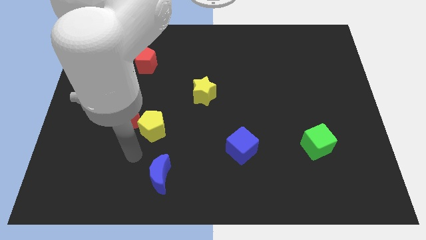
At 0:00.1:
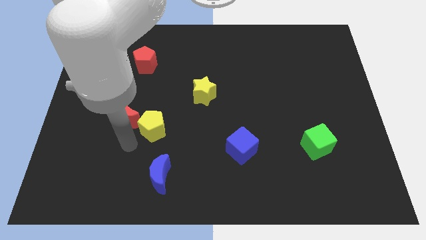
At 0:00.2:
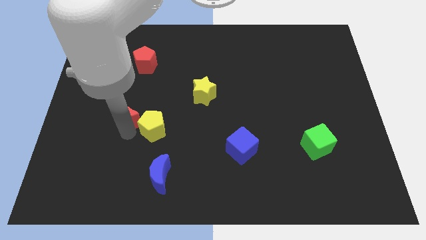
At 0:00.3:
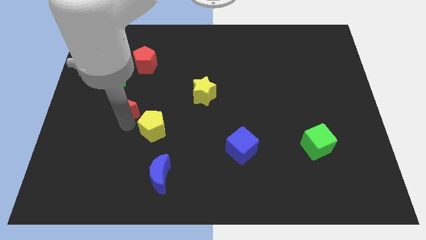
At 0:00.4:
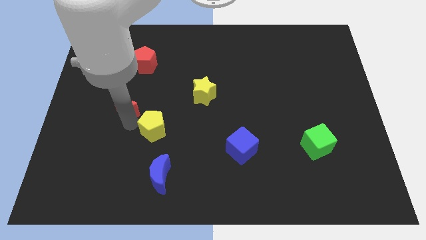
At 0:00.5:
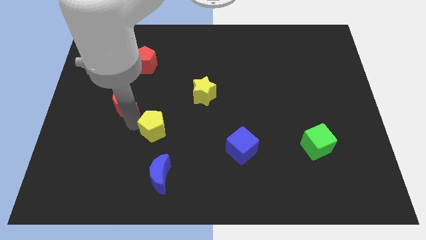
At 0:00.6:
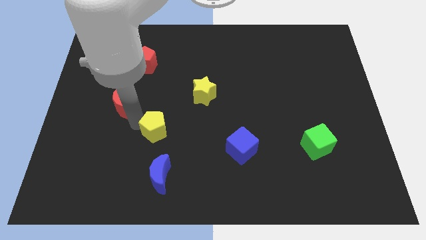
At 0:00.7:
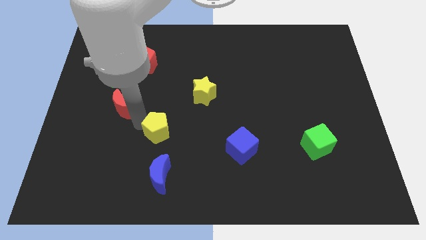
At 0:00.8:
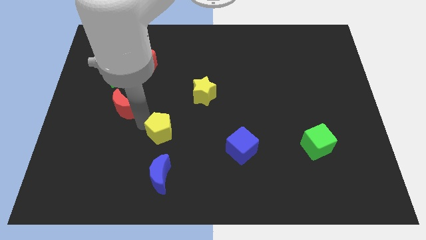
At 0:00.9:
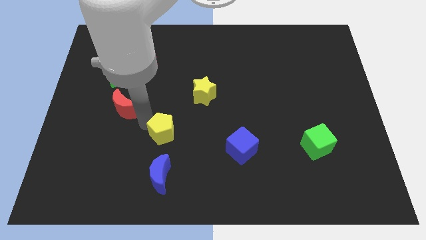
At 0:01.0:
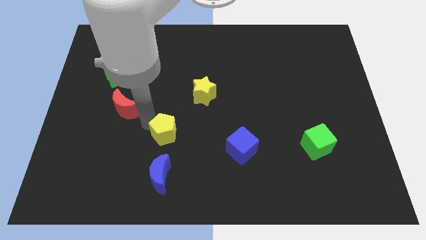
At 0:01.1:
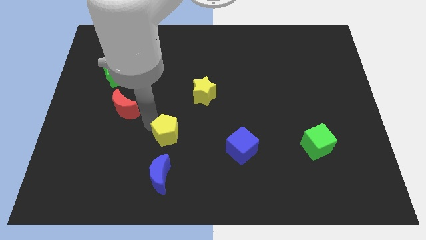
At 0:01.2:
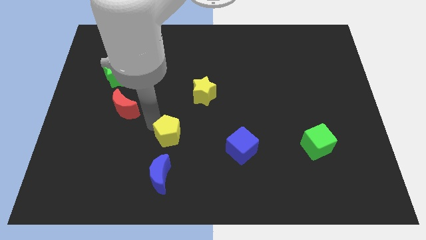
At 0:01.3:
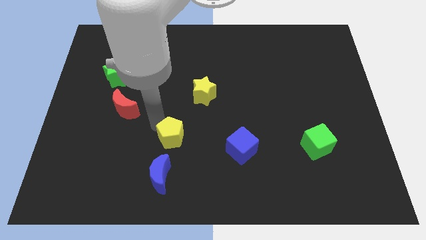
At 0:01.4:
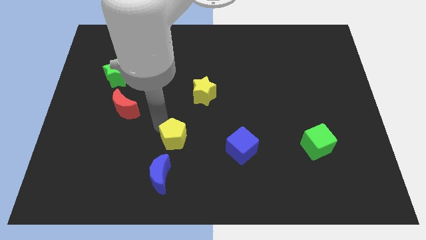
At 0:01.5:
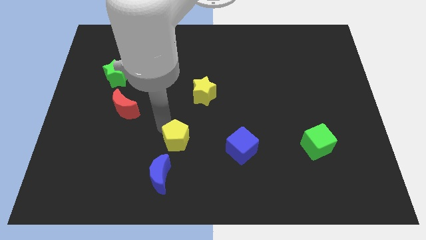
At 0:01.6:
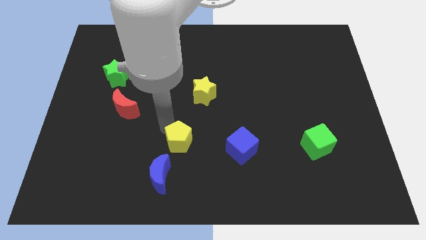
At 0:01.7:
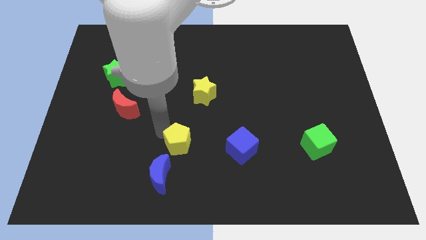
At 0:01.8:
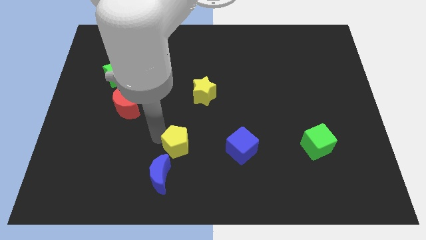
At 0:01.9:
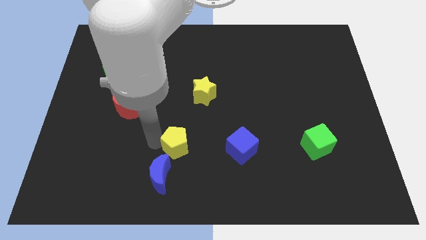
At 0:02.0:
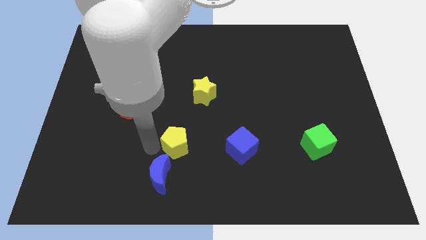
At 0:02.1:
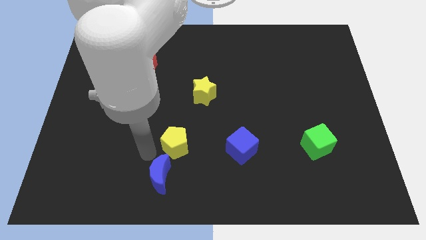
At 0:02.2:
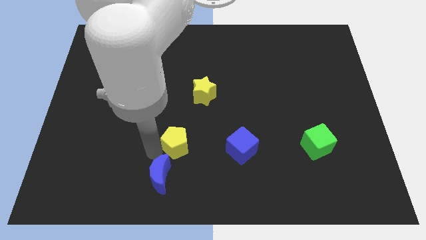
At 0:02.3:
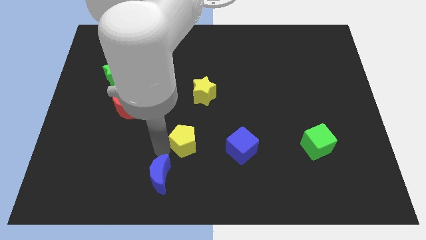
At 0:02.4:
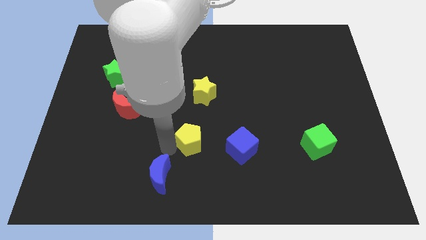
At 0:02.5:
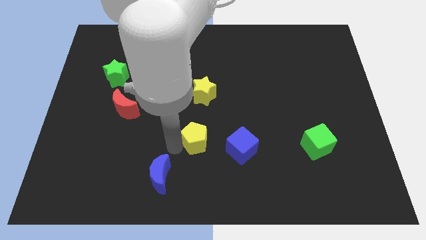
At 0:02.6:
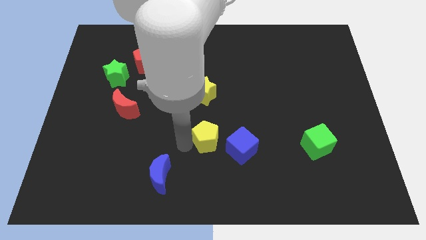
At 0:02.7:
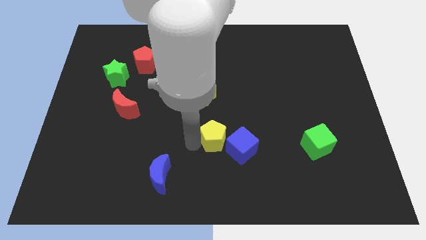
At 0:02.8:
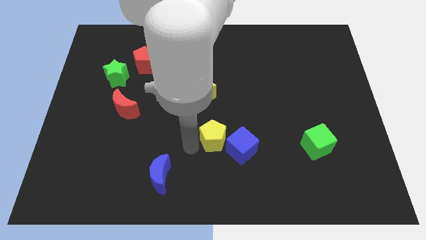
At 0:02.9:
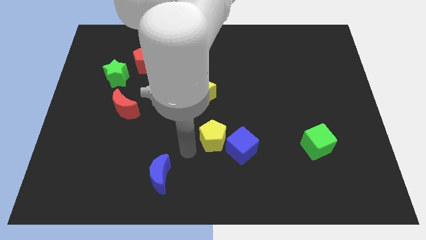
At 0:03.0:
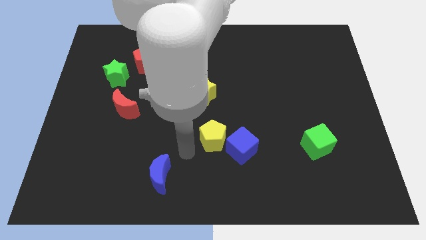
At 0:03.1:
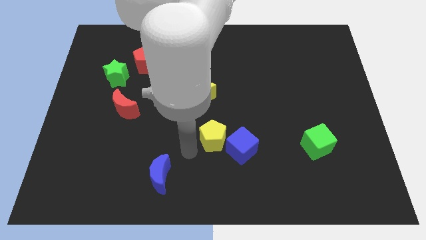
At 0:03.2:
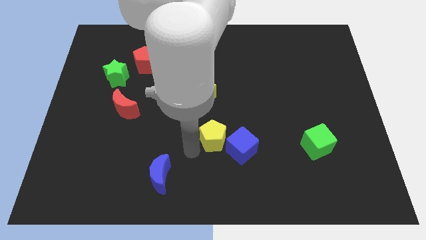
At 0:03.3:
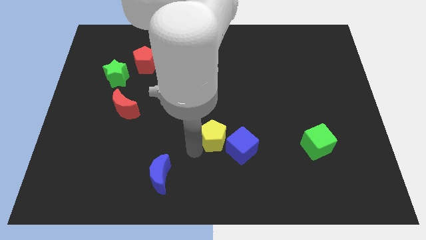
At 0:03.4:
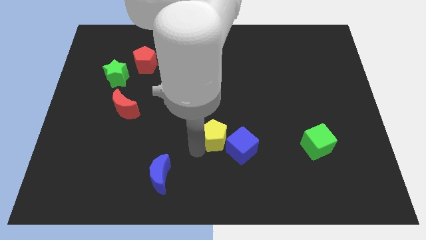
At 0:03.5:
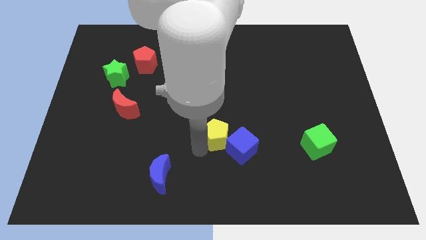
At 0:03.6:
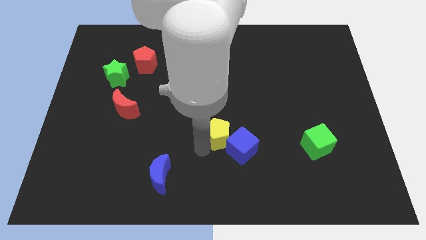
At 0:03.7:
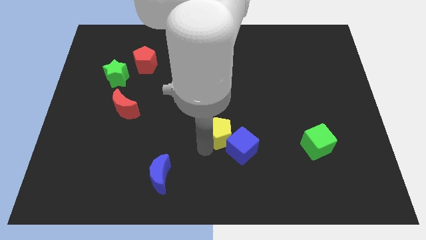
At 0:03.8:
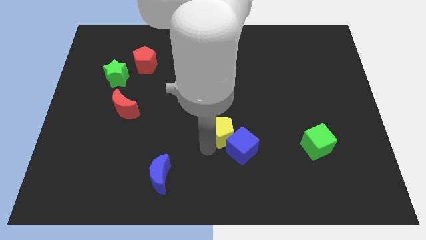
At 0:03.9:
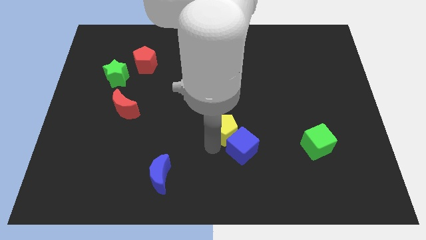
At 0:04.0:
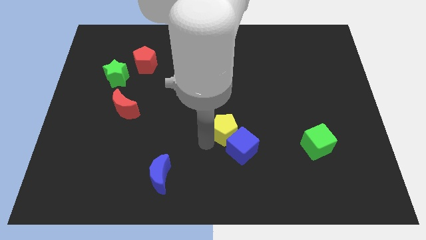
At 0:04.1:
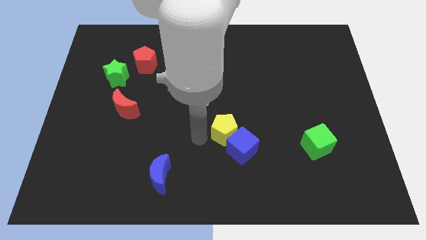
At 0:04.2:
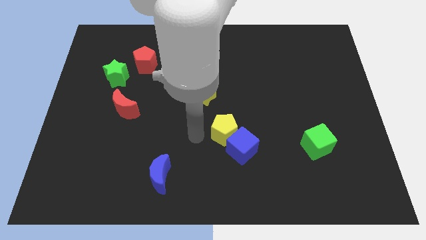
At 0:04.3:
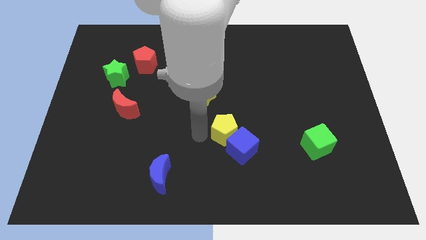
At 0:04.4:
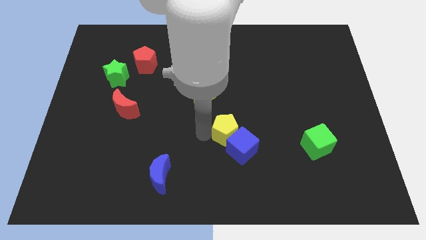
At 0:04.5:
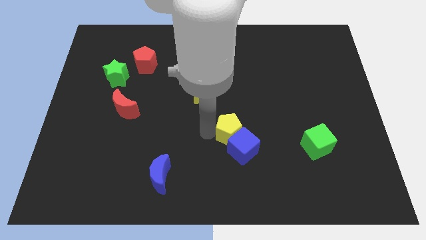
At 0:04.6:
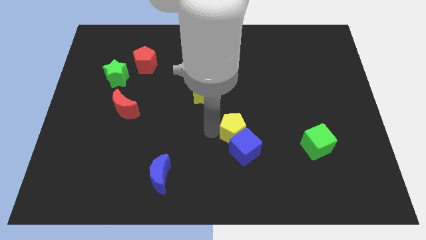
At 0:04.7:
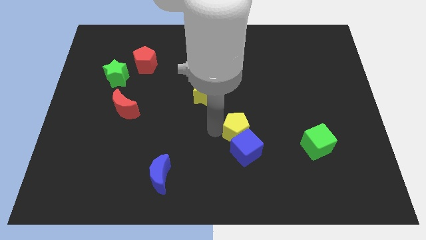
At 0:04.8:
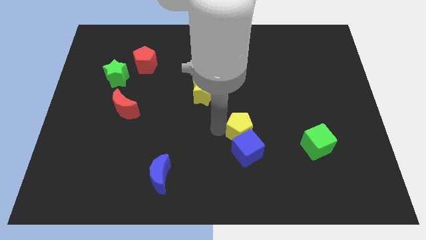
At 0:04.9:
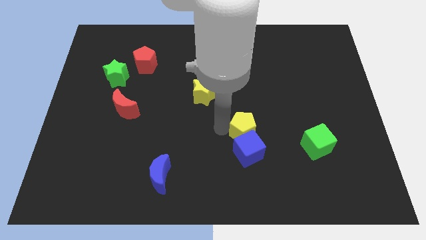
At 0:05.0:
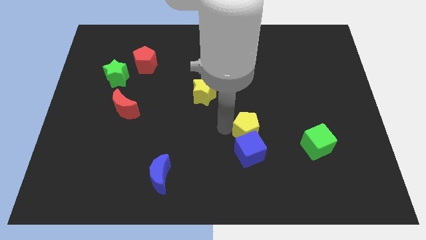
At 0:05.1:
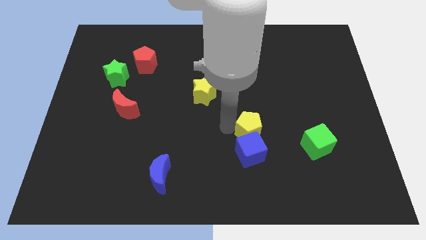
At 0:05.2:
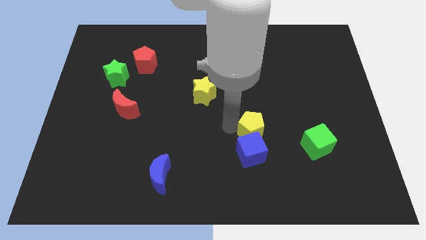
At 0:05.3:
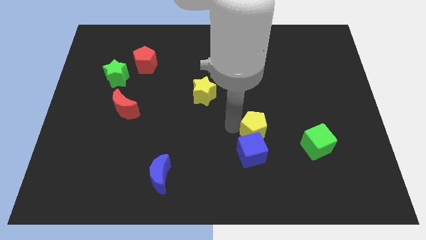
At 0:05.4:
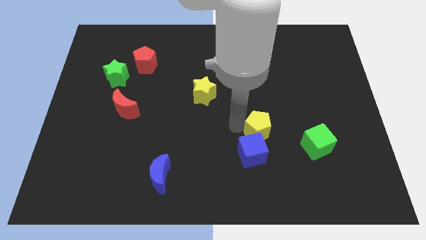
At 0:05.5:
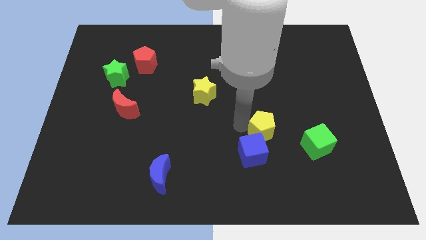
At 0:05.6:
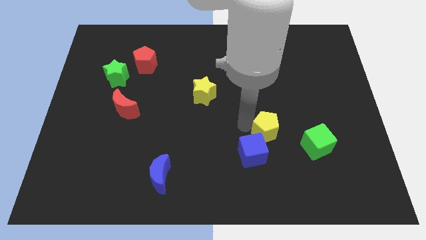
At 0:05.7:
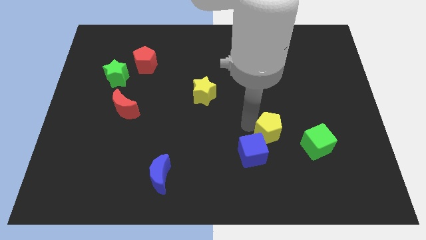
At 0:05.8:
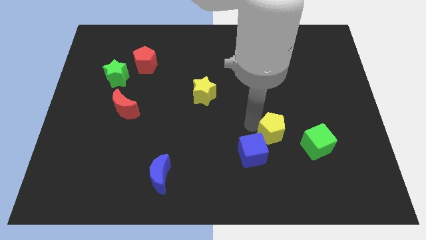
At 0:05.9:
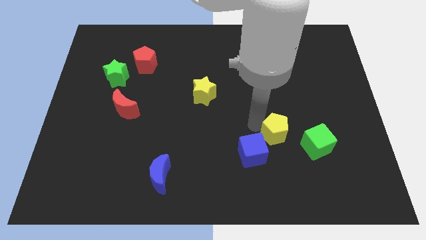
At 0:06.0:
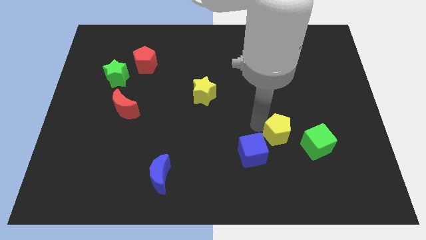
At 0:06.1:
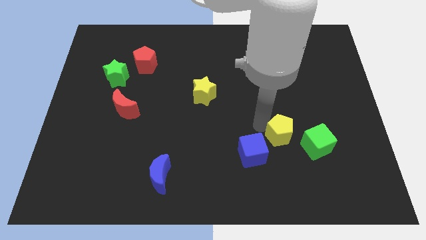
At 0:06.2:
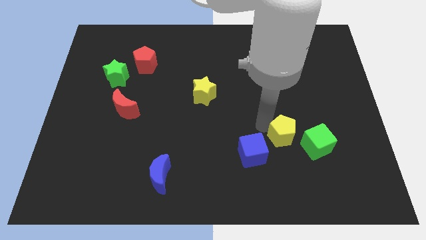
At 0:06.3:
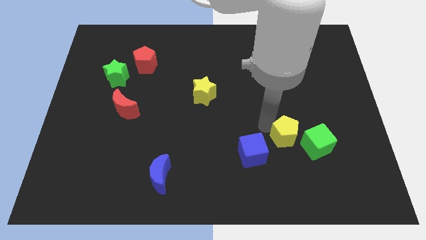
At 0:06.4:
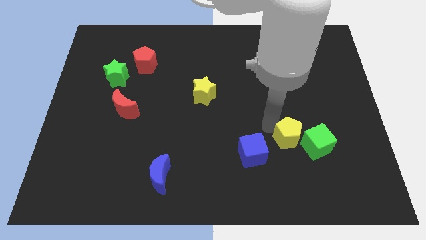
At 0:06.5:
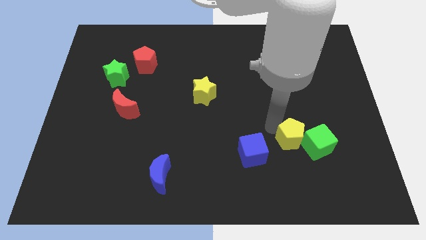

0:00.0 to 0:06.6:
push the yellow pentagon to the green cube
